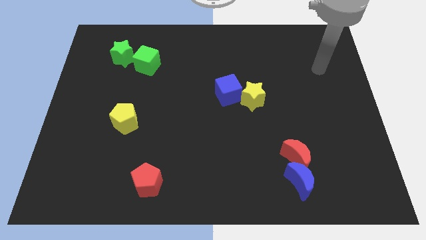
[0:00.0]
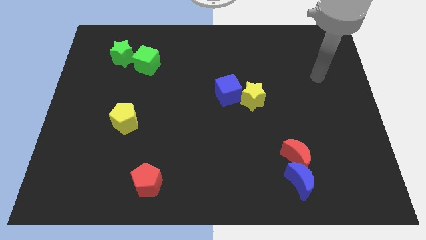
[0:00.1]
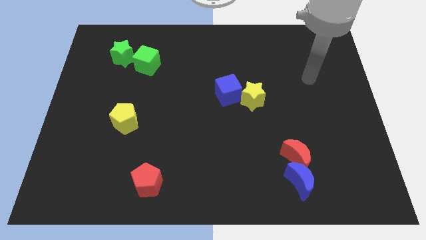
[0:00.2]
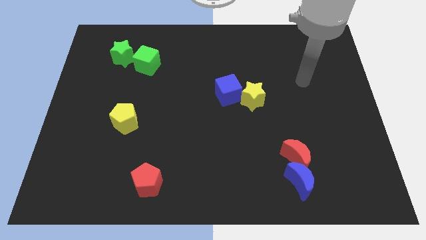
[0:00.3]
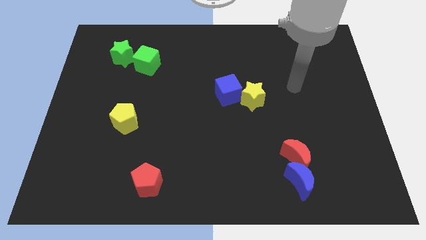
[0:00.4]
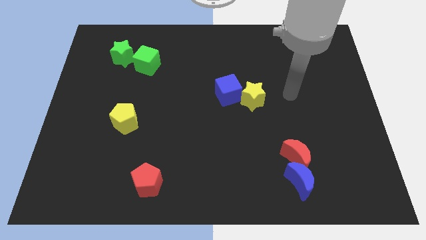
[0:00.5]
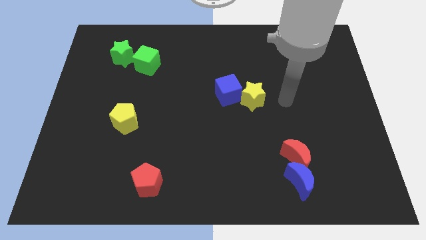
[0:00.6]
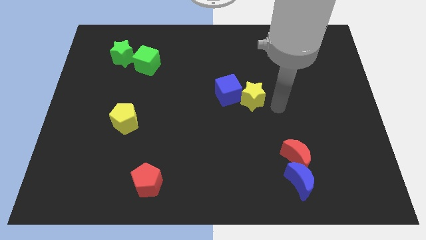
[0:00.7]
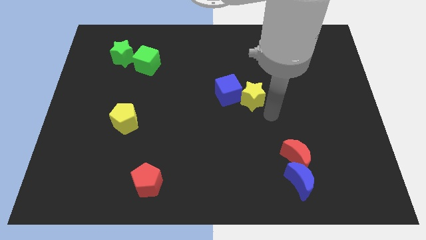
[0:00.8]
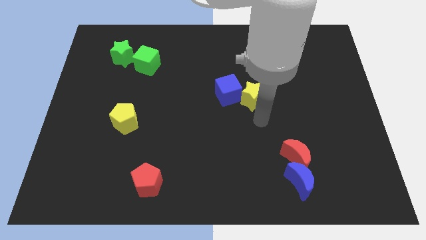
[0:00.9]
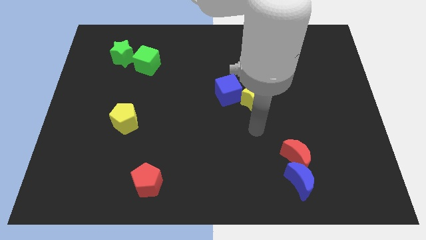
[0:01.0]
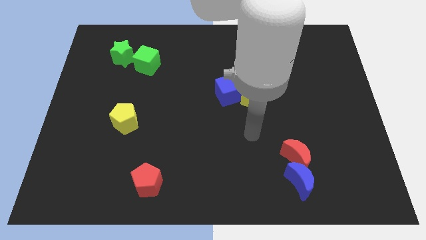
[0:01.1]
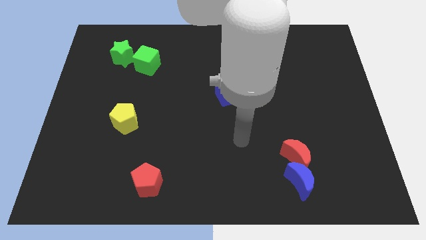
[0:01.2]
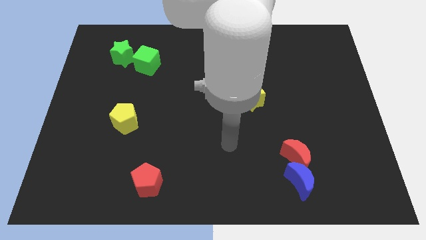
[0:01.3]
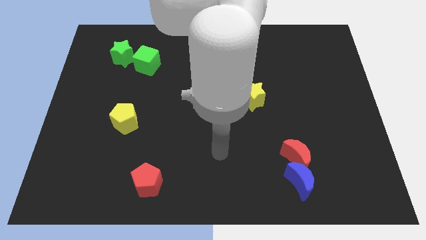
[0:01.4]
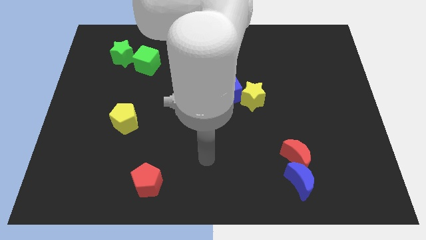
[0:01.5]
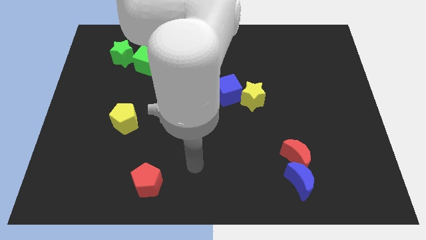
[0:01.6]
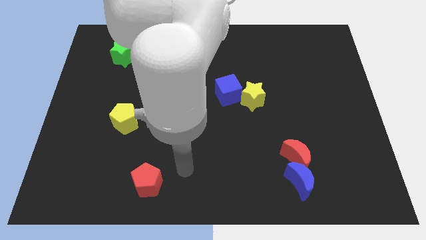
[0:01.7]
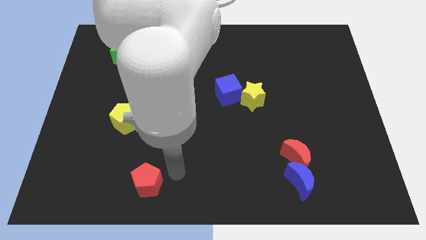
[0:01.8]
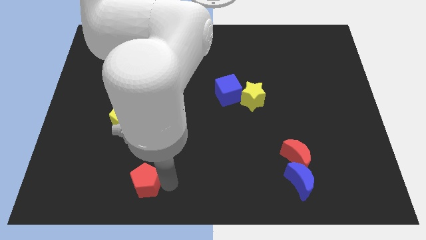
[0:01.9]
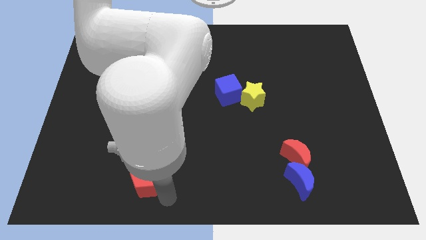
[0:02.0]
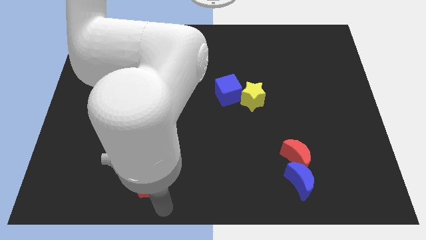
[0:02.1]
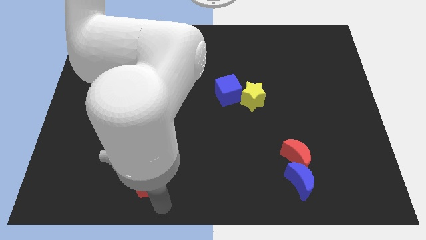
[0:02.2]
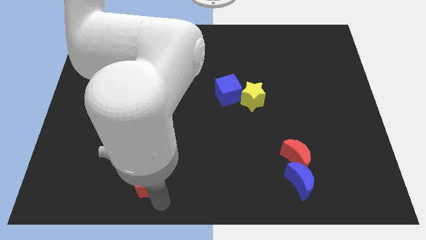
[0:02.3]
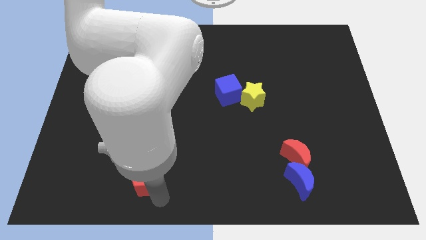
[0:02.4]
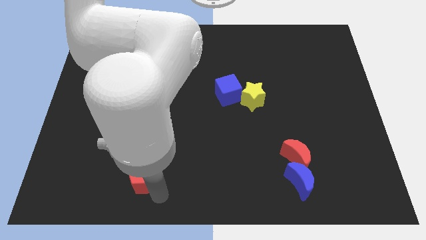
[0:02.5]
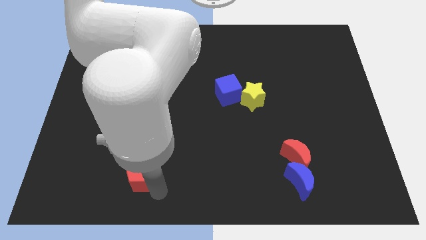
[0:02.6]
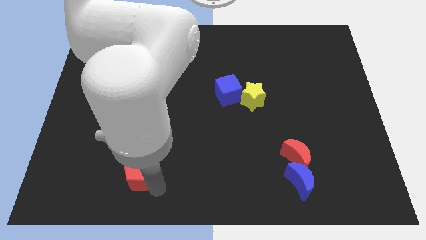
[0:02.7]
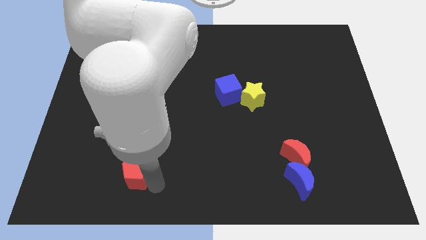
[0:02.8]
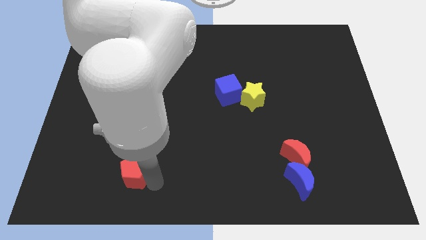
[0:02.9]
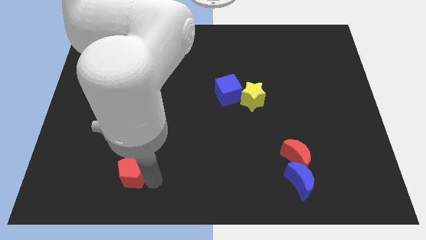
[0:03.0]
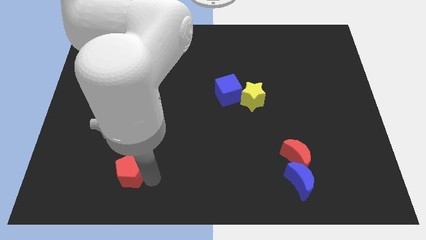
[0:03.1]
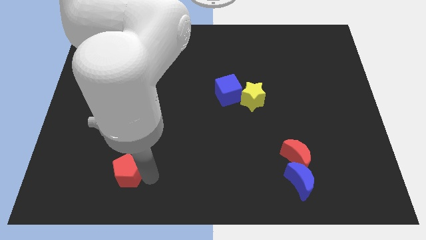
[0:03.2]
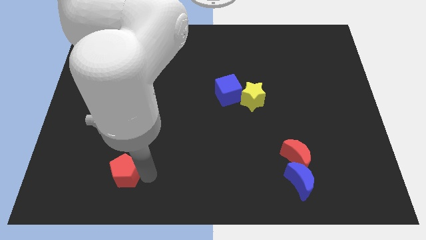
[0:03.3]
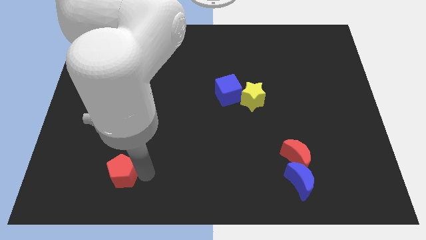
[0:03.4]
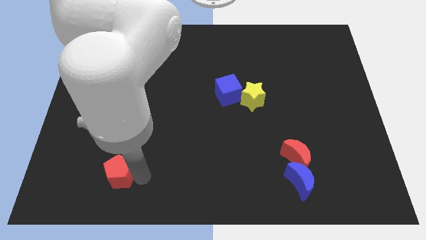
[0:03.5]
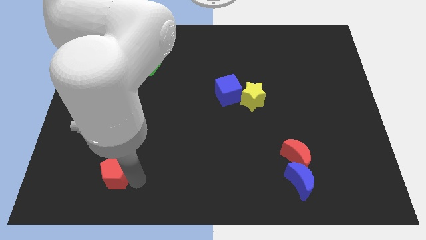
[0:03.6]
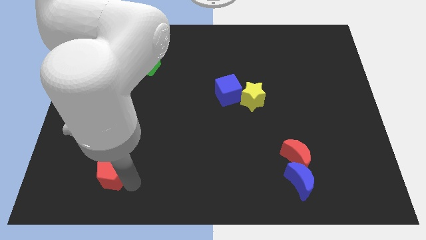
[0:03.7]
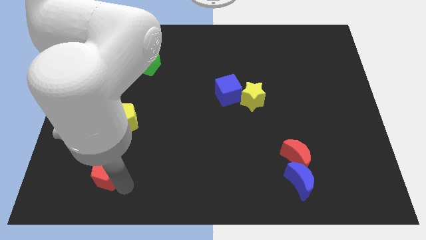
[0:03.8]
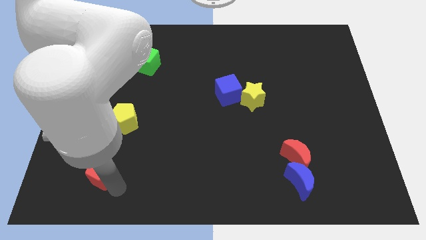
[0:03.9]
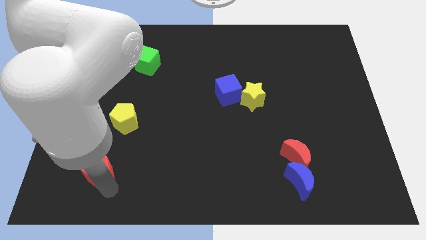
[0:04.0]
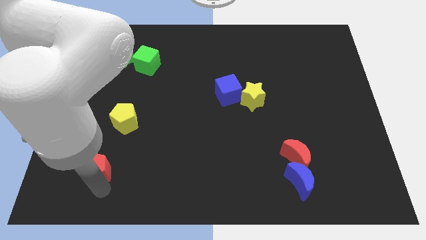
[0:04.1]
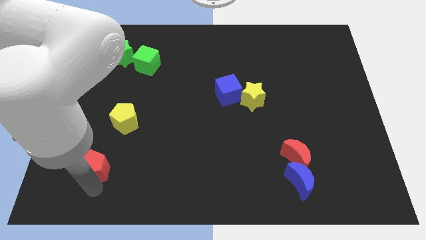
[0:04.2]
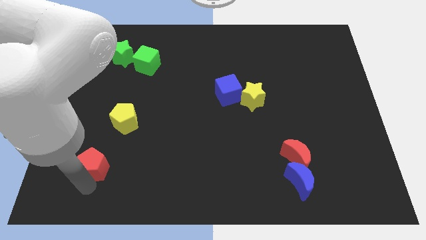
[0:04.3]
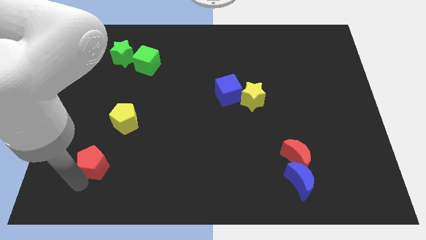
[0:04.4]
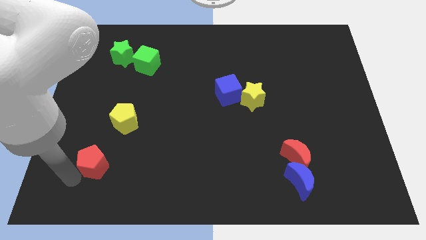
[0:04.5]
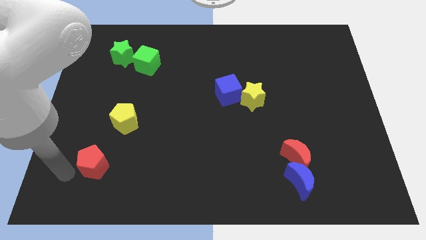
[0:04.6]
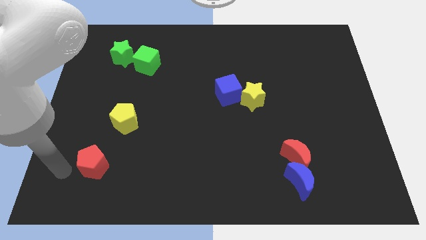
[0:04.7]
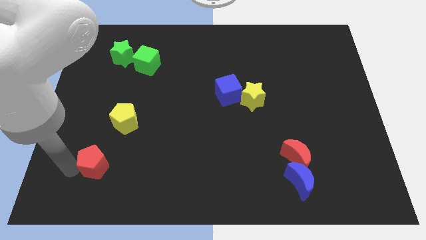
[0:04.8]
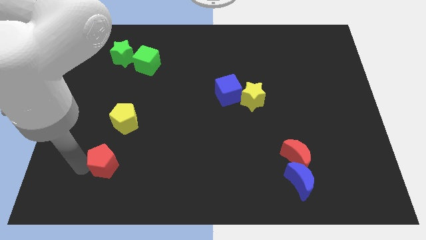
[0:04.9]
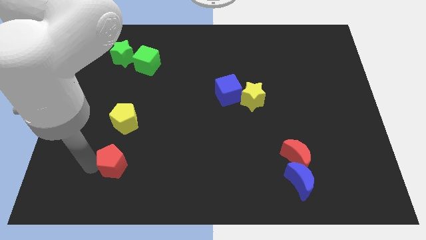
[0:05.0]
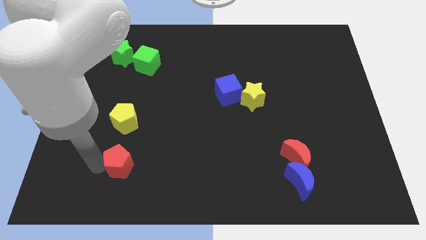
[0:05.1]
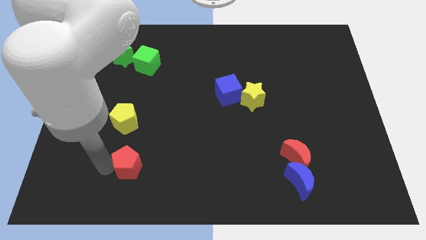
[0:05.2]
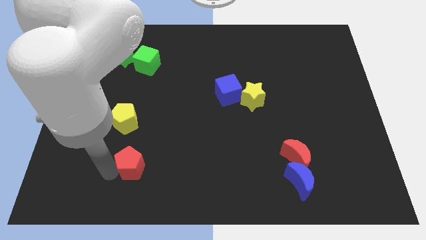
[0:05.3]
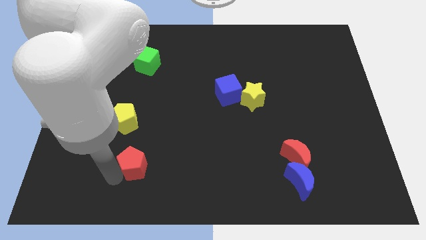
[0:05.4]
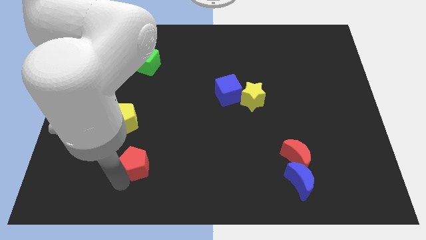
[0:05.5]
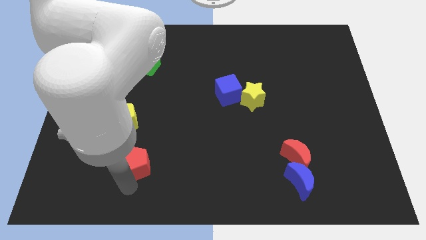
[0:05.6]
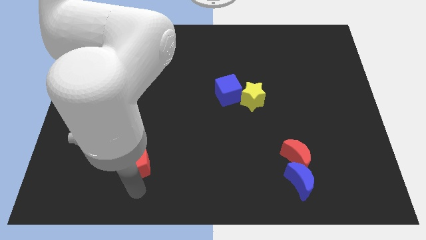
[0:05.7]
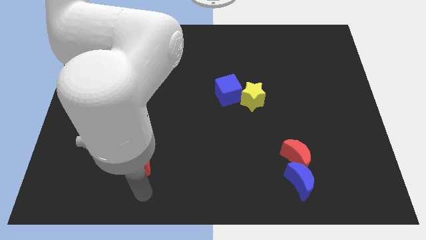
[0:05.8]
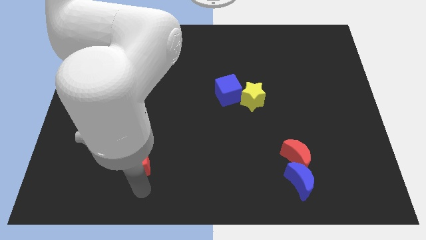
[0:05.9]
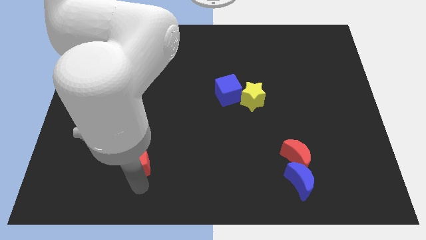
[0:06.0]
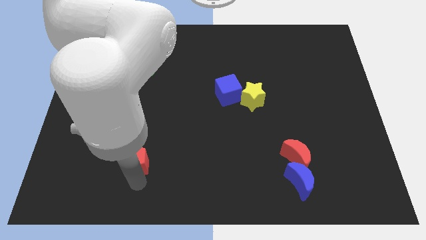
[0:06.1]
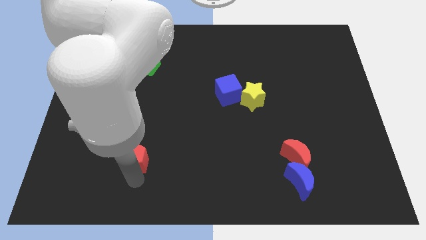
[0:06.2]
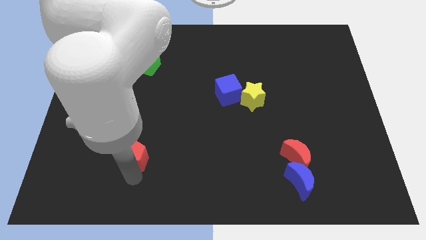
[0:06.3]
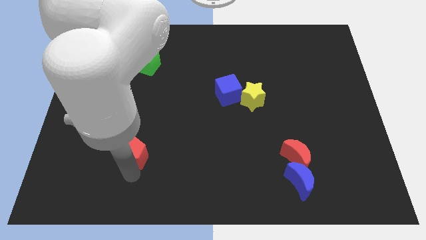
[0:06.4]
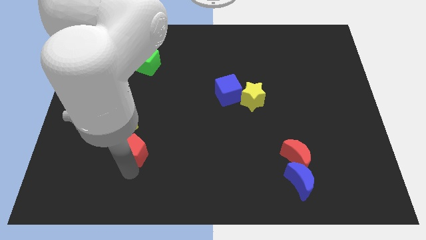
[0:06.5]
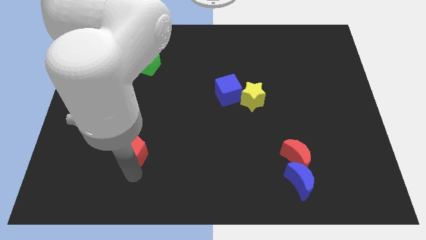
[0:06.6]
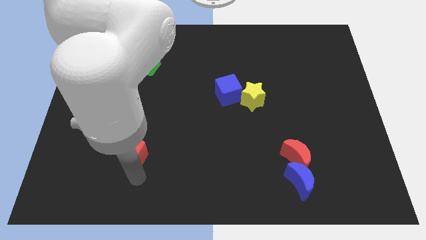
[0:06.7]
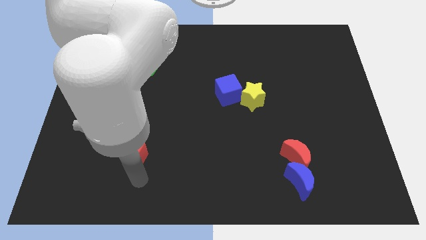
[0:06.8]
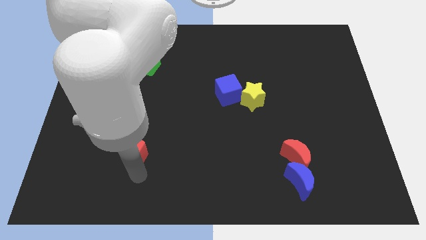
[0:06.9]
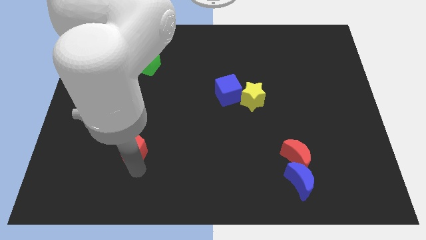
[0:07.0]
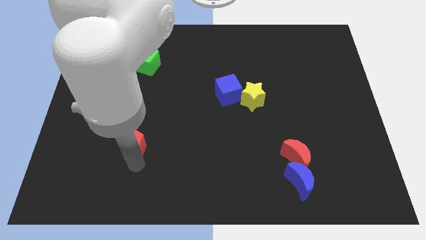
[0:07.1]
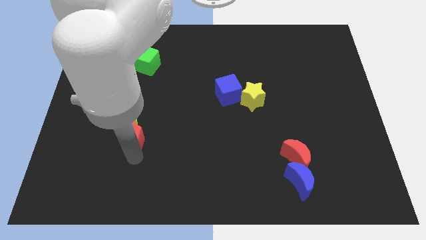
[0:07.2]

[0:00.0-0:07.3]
slide the red pentagon to the yellow pentagon
